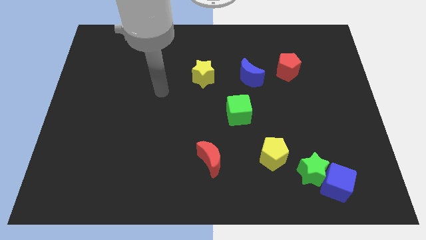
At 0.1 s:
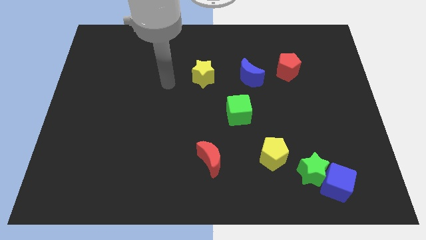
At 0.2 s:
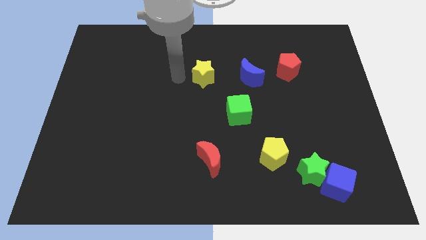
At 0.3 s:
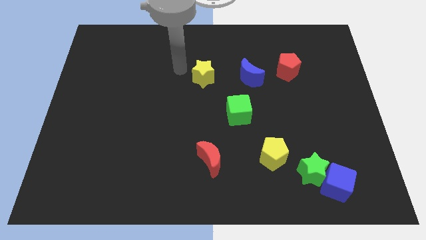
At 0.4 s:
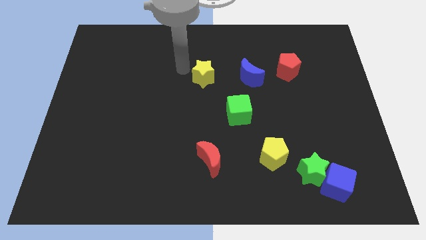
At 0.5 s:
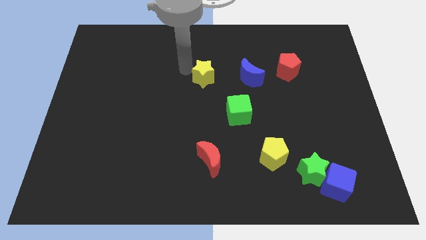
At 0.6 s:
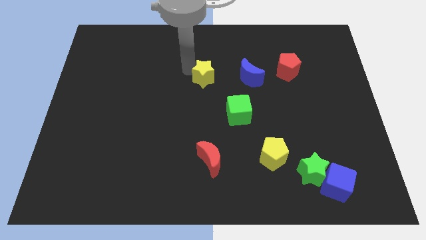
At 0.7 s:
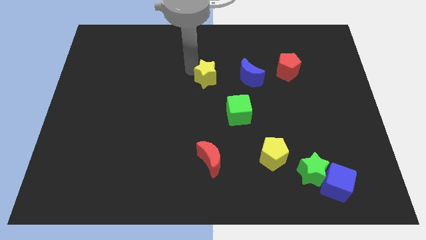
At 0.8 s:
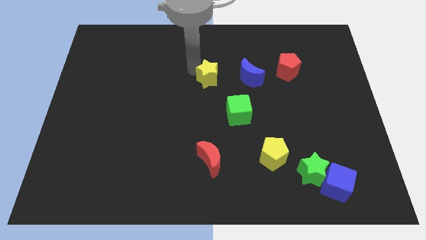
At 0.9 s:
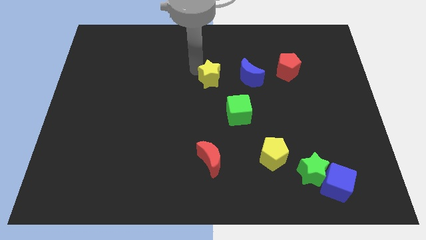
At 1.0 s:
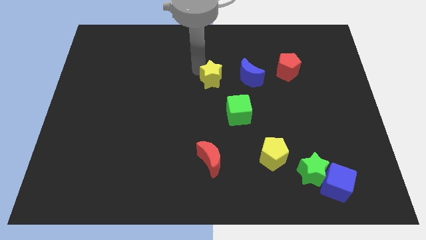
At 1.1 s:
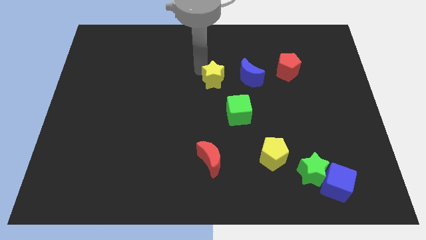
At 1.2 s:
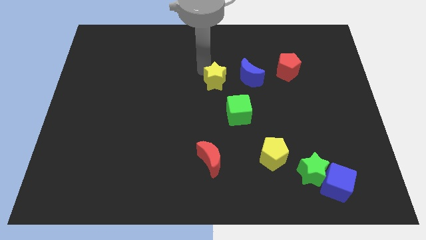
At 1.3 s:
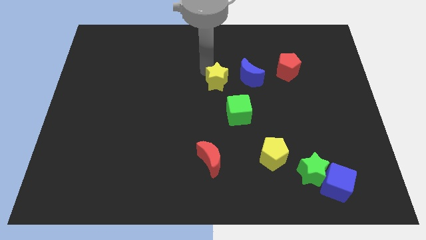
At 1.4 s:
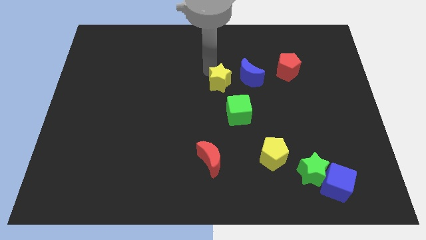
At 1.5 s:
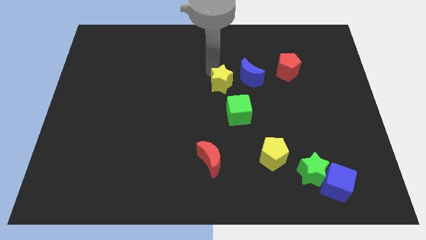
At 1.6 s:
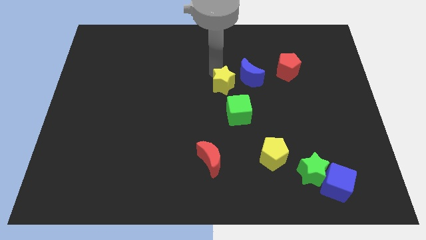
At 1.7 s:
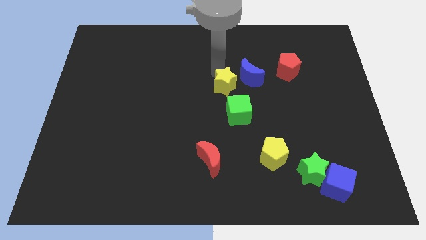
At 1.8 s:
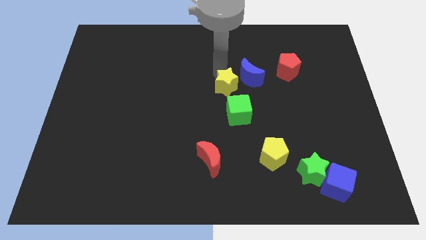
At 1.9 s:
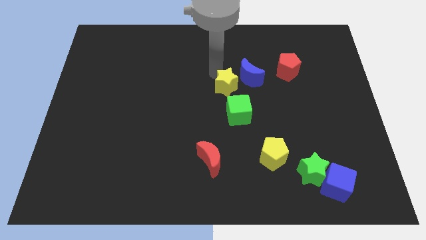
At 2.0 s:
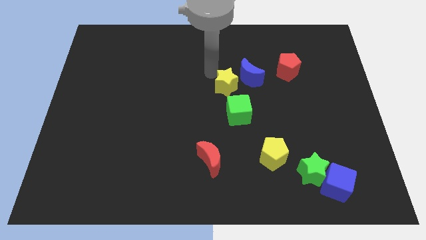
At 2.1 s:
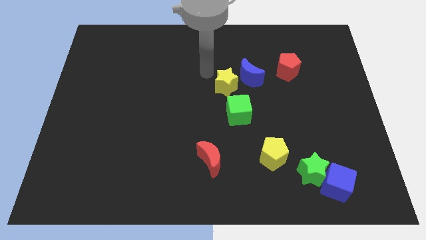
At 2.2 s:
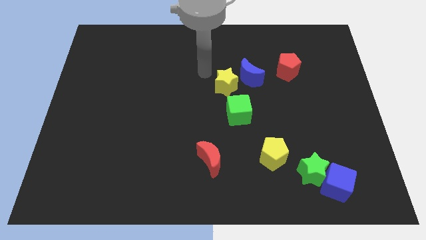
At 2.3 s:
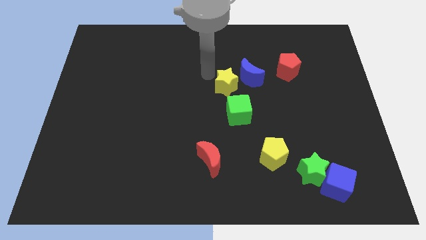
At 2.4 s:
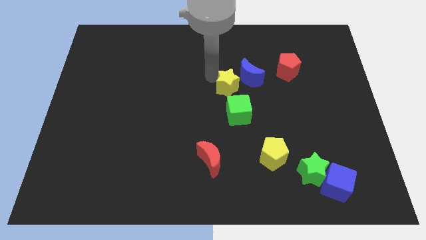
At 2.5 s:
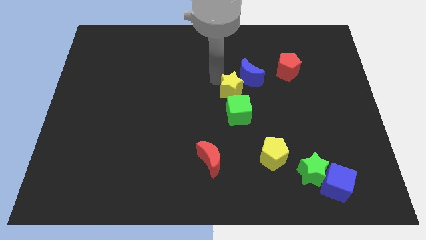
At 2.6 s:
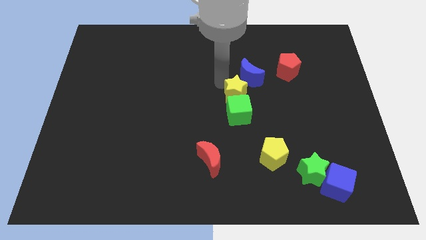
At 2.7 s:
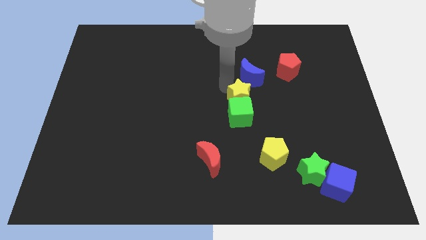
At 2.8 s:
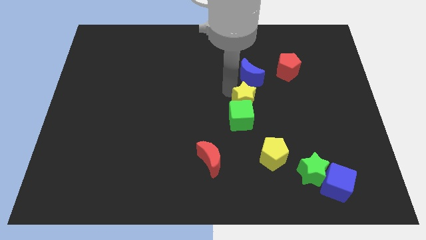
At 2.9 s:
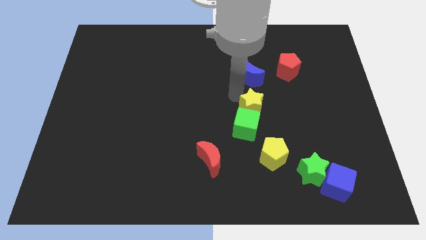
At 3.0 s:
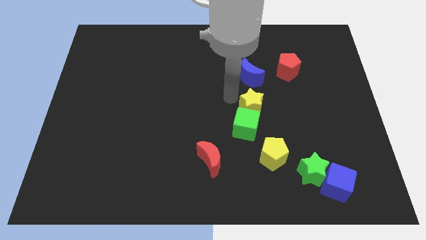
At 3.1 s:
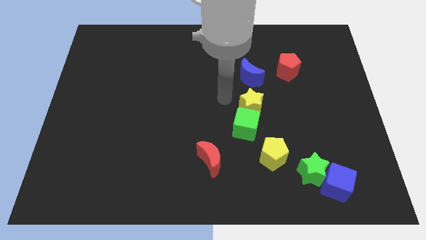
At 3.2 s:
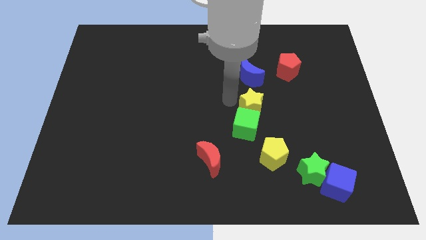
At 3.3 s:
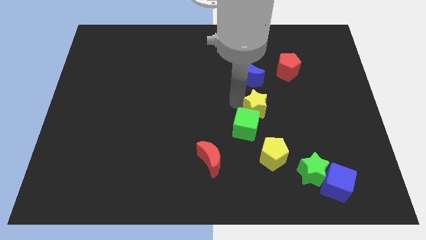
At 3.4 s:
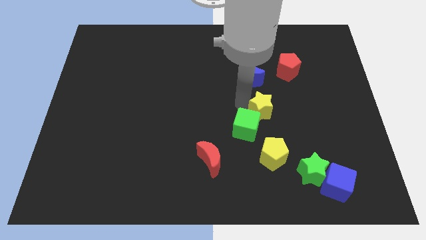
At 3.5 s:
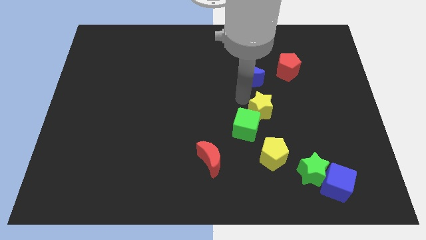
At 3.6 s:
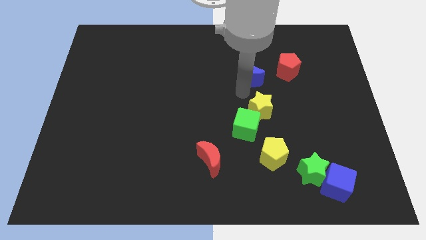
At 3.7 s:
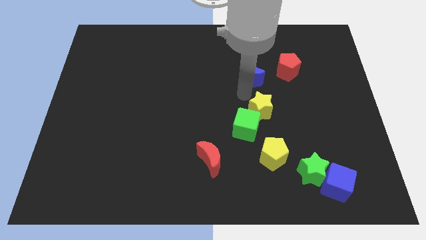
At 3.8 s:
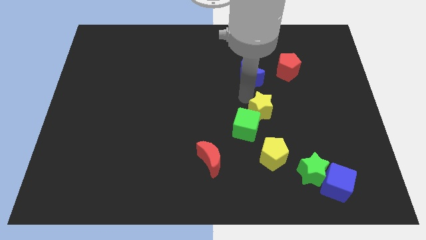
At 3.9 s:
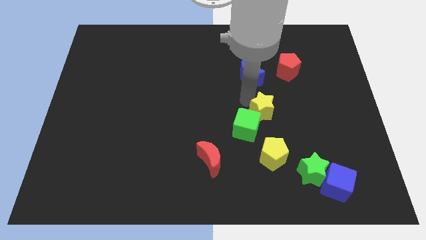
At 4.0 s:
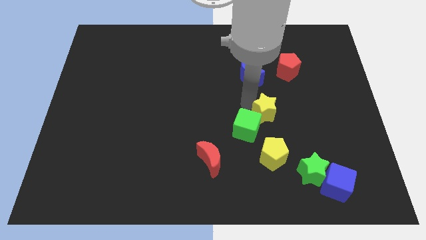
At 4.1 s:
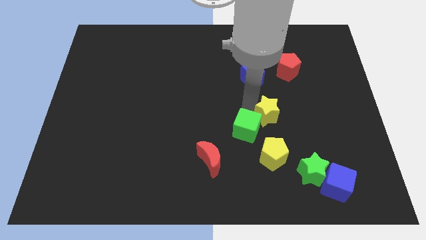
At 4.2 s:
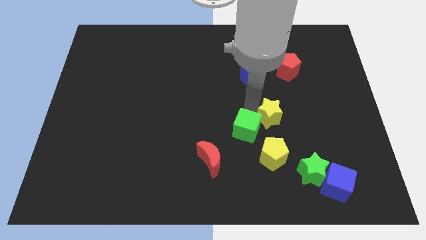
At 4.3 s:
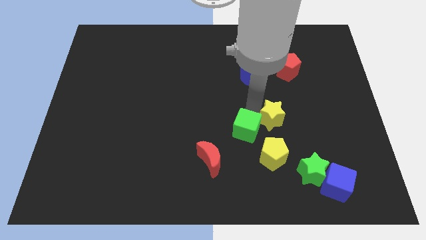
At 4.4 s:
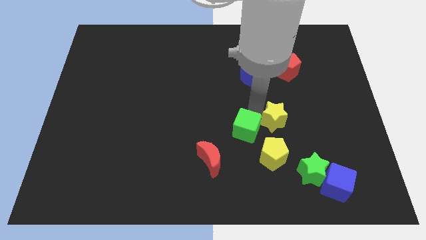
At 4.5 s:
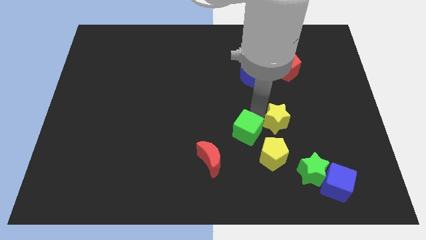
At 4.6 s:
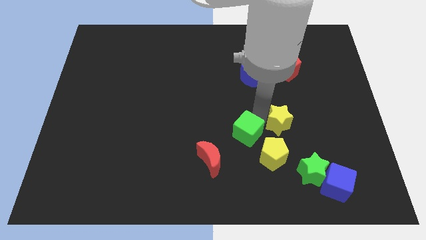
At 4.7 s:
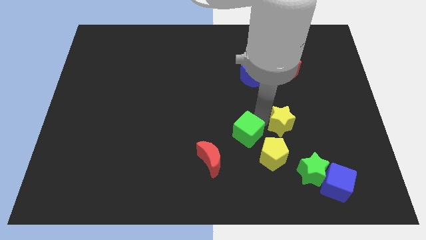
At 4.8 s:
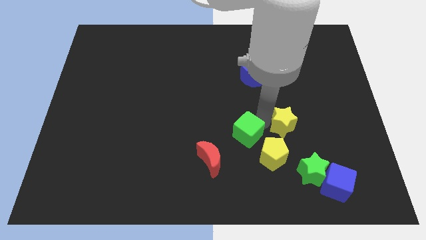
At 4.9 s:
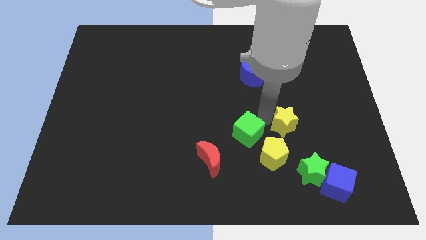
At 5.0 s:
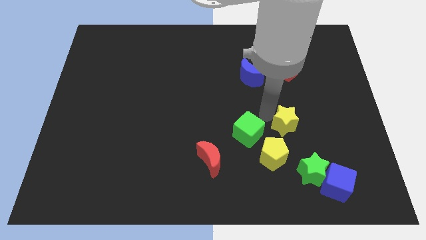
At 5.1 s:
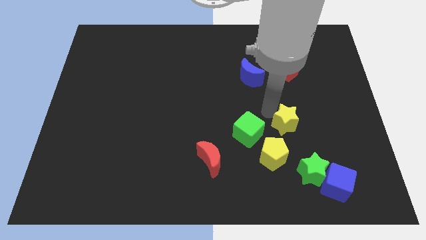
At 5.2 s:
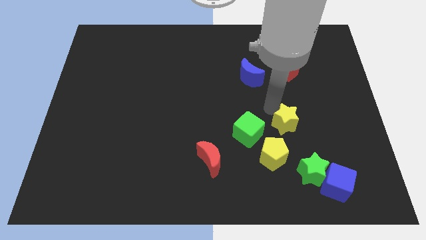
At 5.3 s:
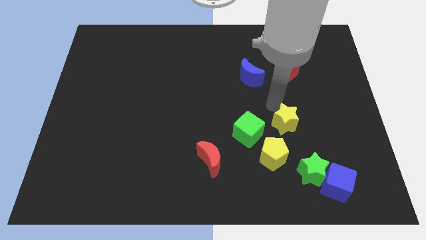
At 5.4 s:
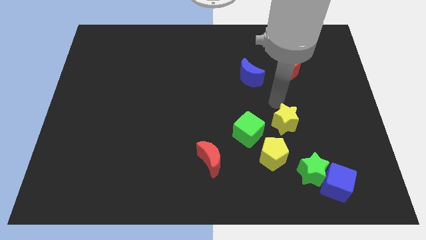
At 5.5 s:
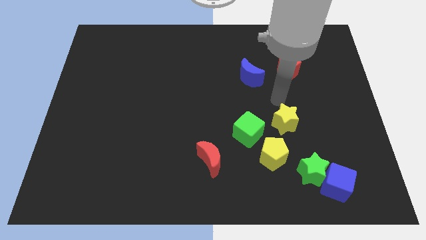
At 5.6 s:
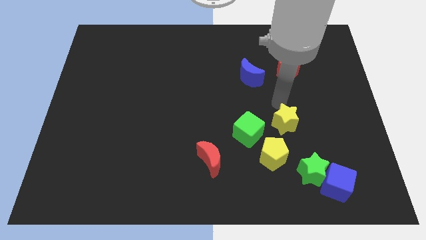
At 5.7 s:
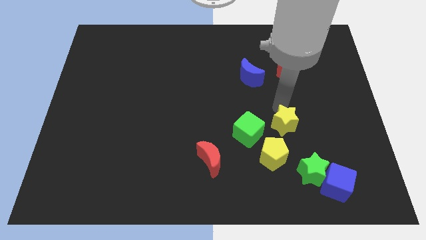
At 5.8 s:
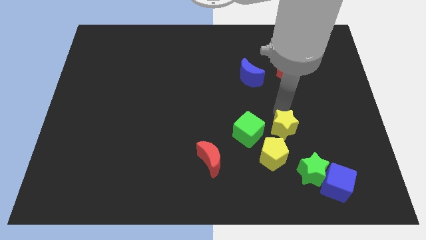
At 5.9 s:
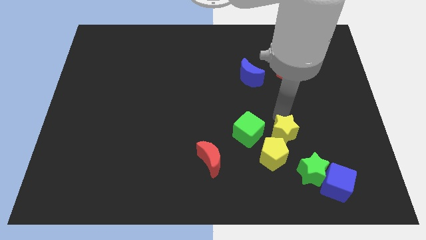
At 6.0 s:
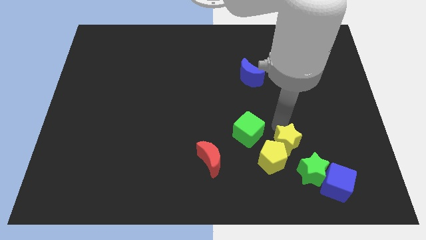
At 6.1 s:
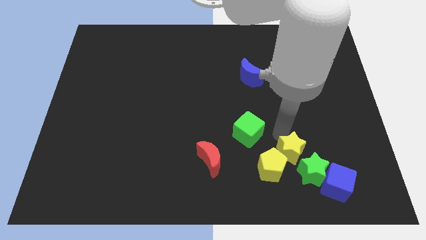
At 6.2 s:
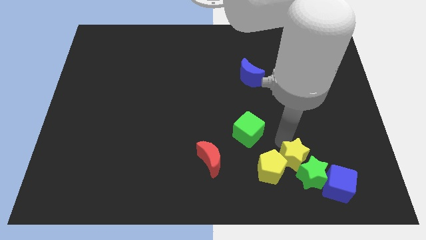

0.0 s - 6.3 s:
push the yellow star next to the green star
